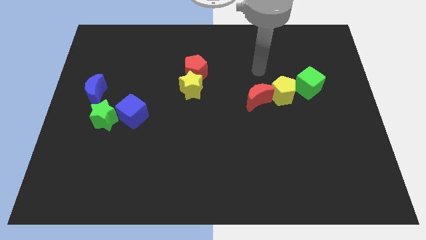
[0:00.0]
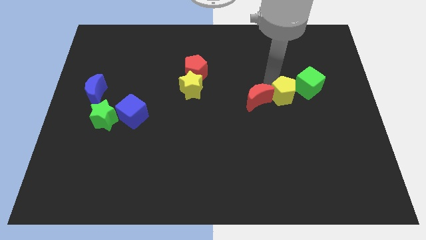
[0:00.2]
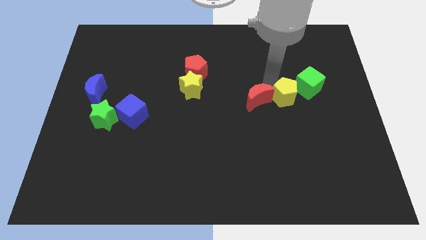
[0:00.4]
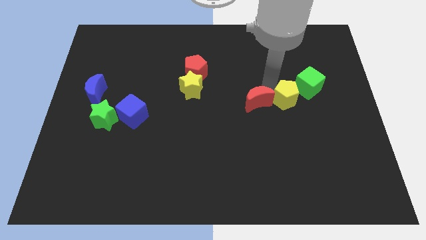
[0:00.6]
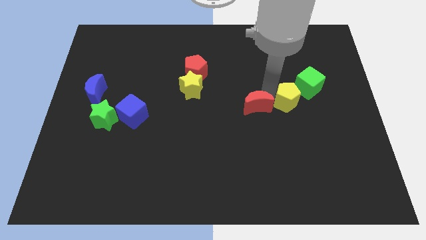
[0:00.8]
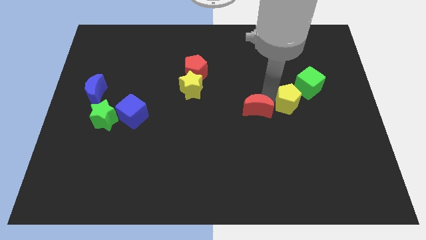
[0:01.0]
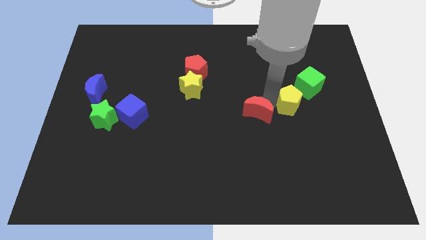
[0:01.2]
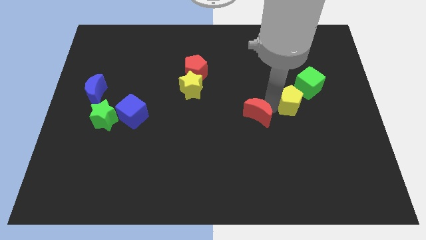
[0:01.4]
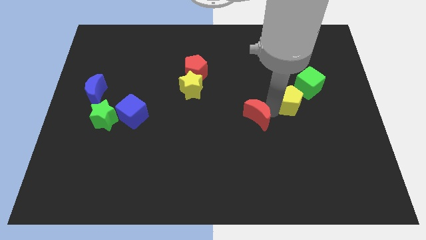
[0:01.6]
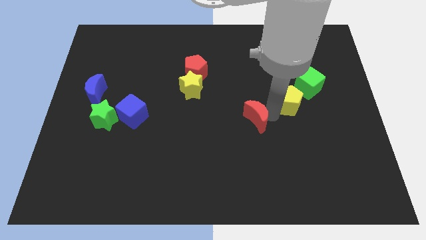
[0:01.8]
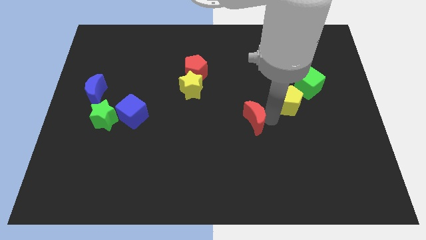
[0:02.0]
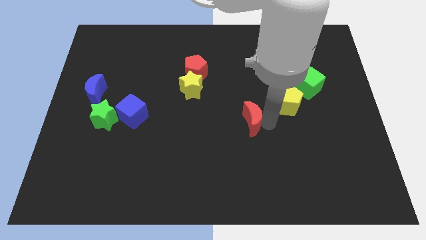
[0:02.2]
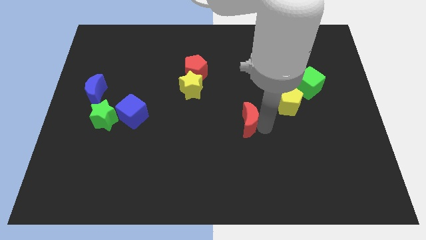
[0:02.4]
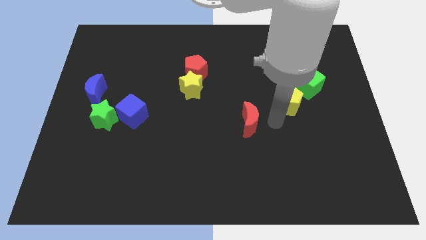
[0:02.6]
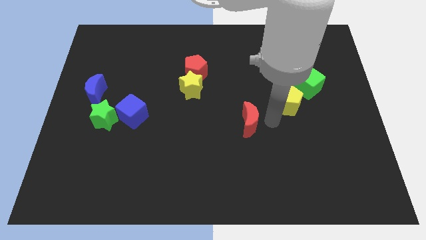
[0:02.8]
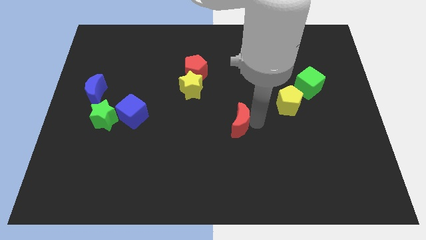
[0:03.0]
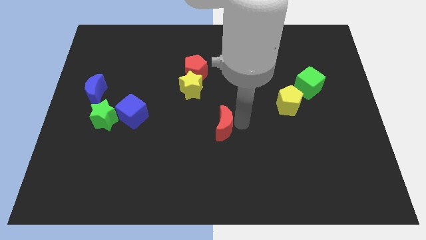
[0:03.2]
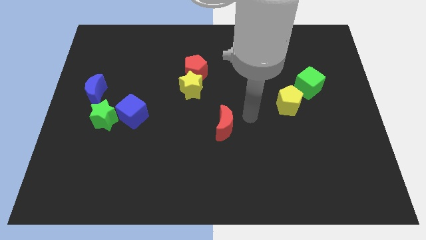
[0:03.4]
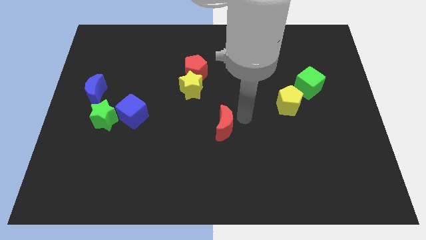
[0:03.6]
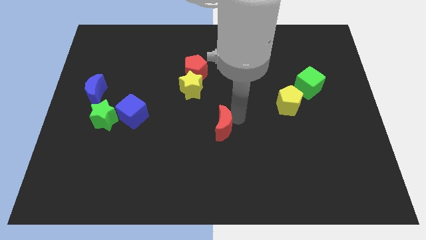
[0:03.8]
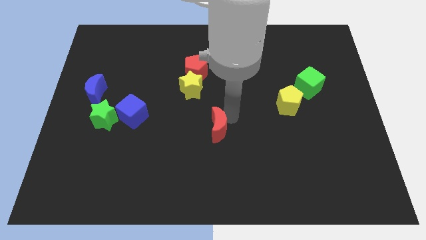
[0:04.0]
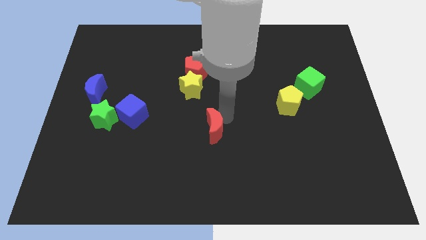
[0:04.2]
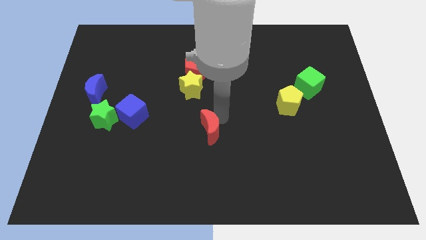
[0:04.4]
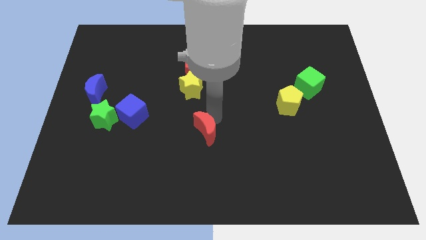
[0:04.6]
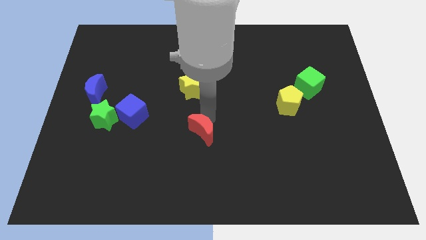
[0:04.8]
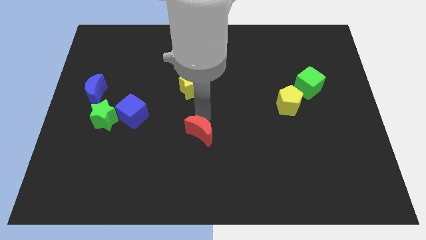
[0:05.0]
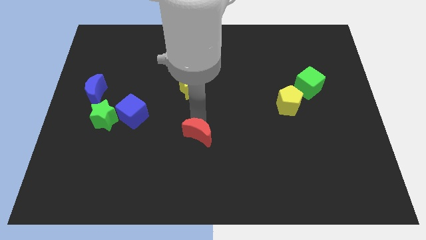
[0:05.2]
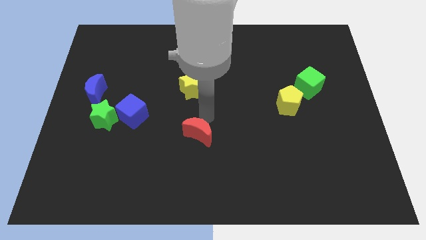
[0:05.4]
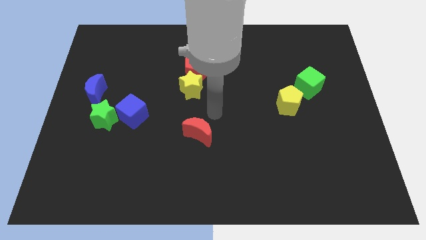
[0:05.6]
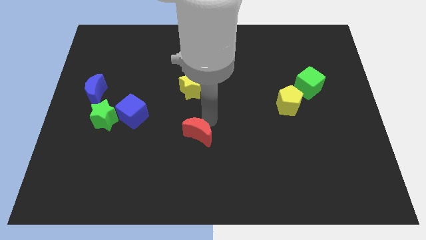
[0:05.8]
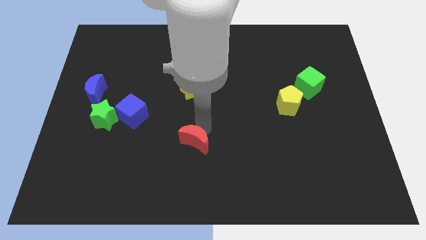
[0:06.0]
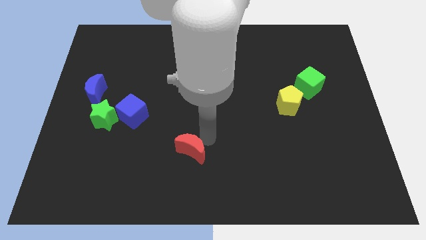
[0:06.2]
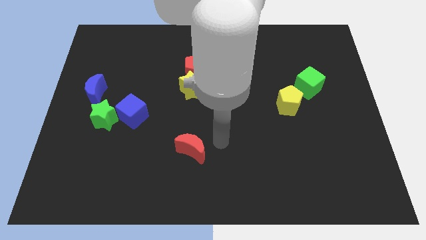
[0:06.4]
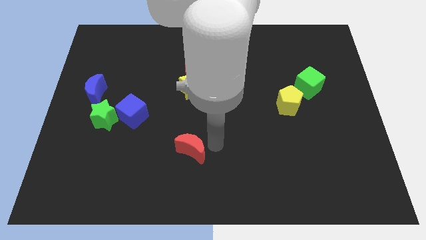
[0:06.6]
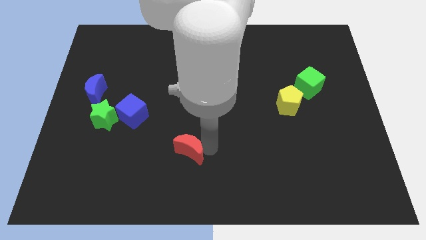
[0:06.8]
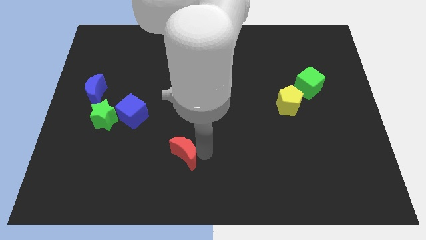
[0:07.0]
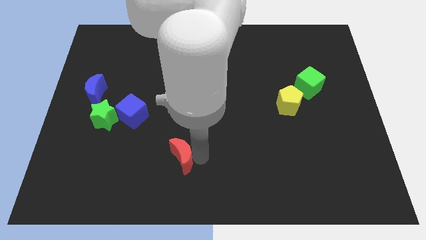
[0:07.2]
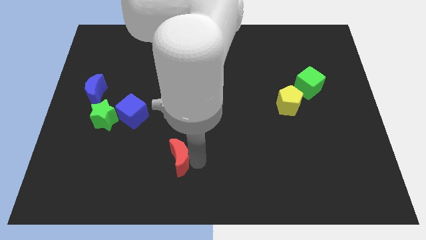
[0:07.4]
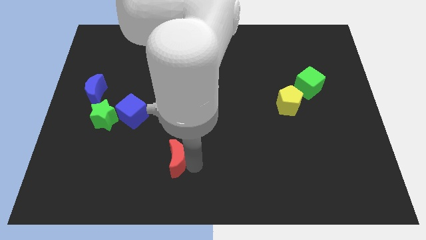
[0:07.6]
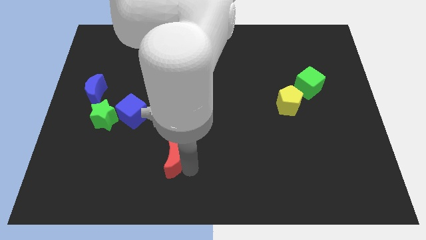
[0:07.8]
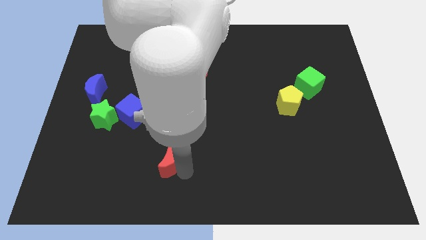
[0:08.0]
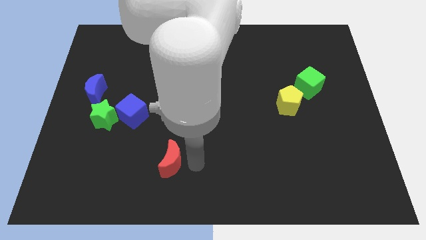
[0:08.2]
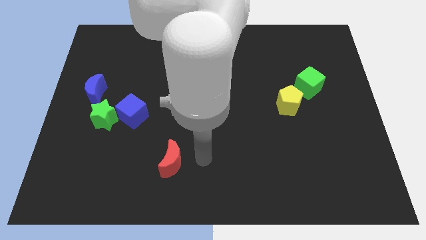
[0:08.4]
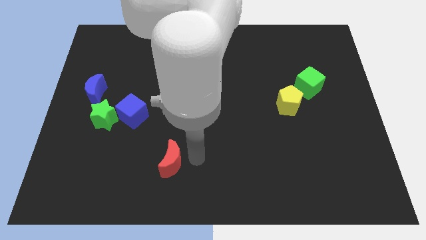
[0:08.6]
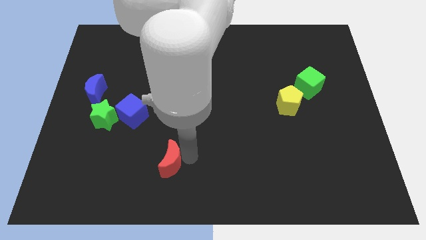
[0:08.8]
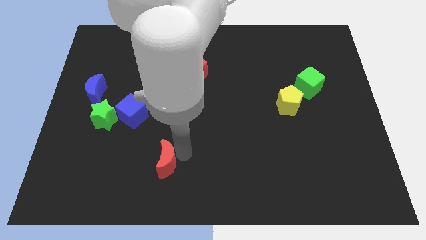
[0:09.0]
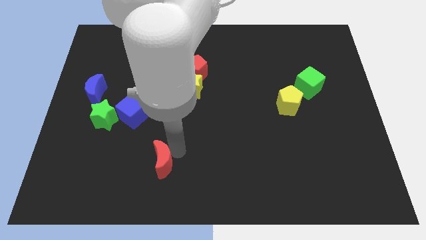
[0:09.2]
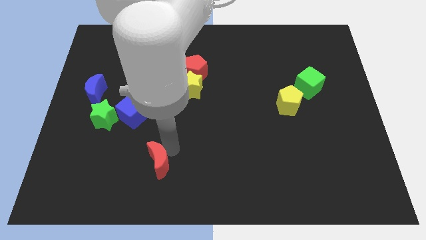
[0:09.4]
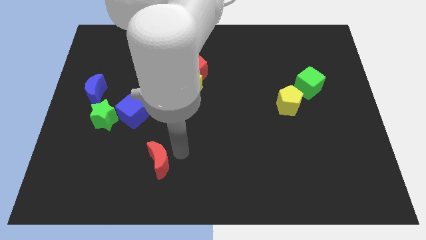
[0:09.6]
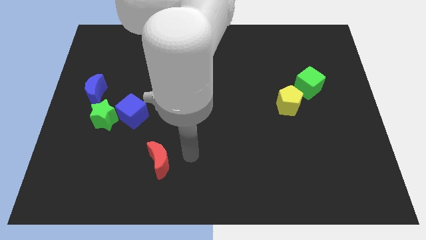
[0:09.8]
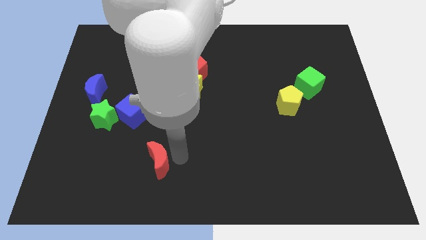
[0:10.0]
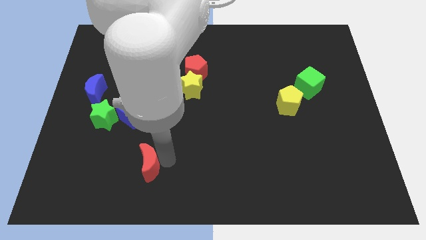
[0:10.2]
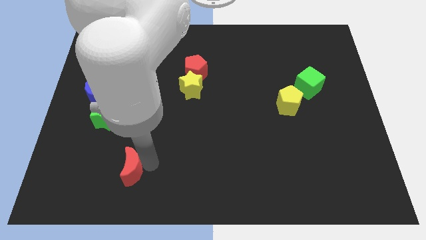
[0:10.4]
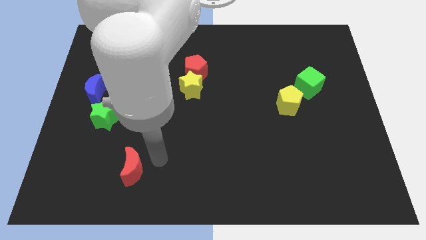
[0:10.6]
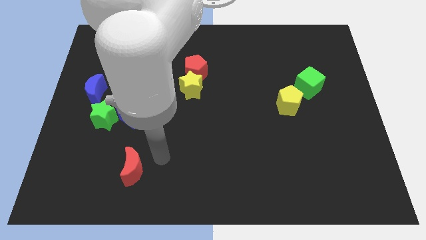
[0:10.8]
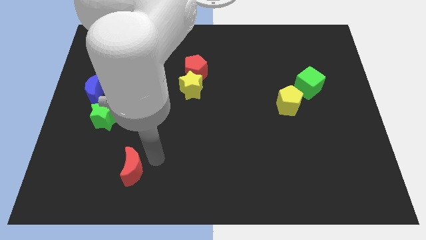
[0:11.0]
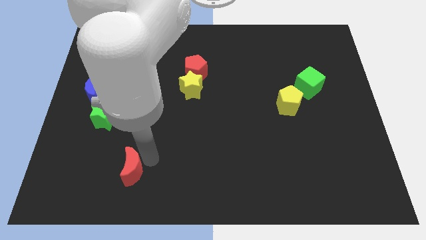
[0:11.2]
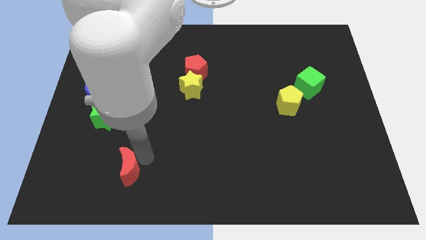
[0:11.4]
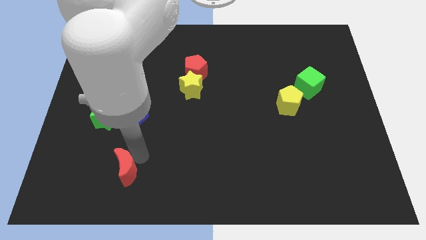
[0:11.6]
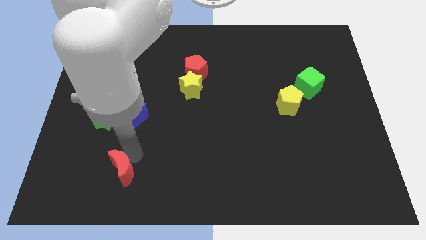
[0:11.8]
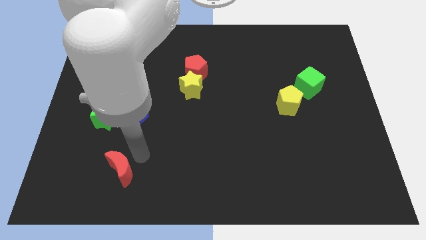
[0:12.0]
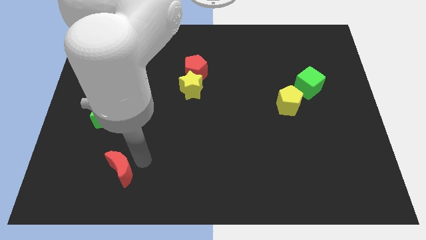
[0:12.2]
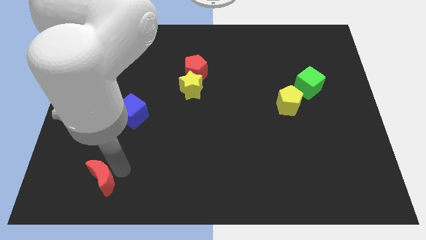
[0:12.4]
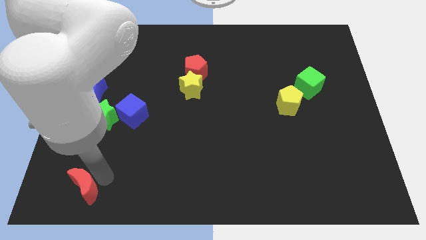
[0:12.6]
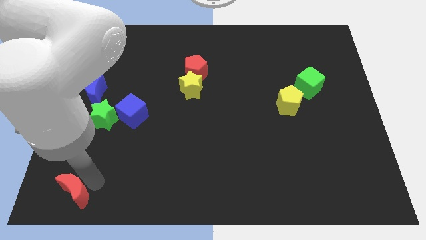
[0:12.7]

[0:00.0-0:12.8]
put the red moon to the bottom left corner
